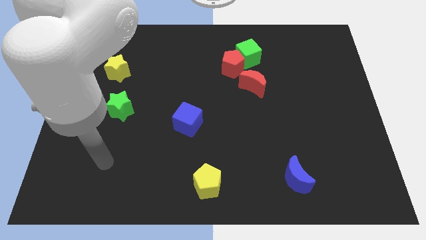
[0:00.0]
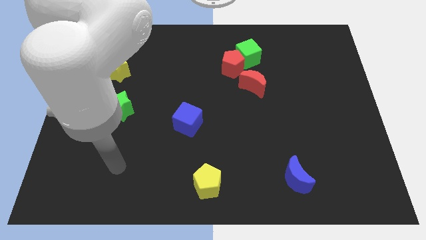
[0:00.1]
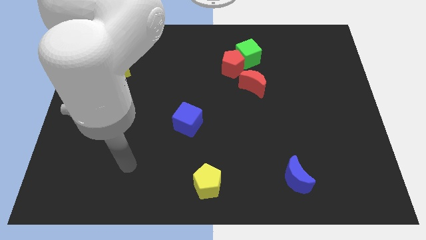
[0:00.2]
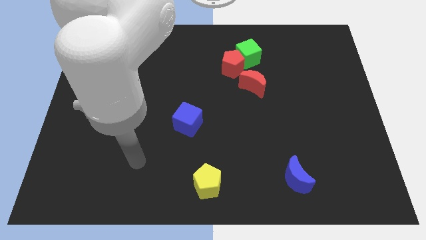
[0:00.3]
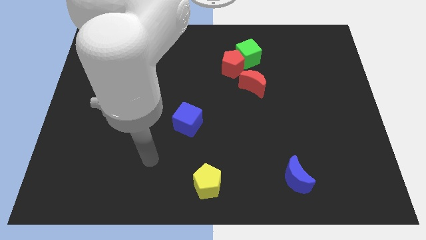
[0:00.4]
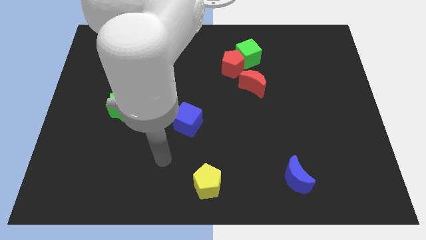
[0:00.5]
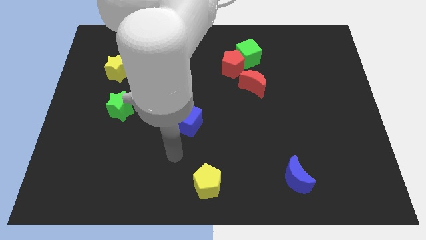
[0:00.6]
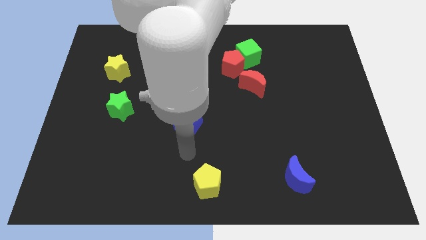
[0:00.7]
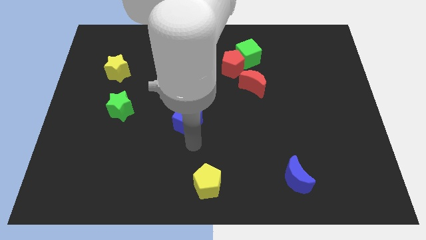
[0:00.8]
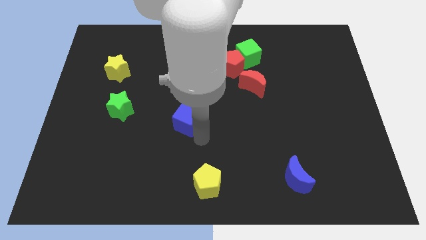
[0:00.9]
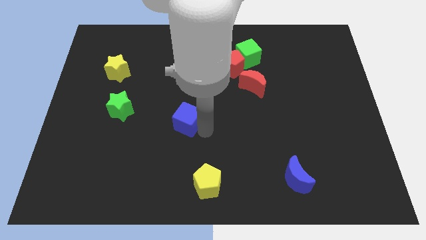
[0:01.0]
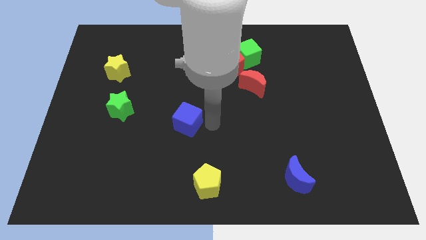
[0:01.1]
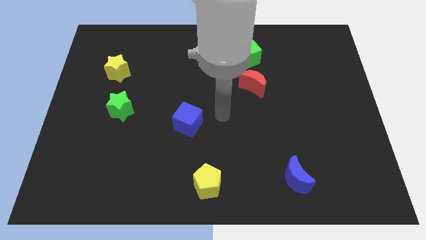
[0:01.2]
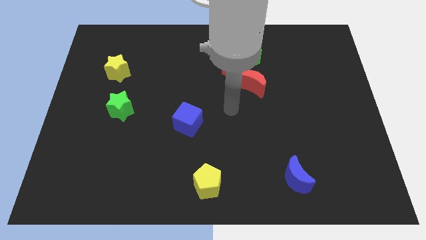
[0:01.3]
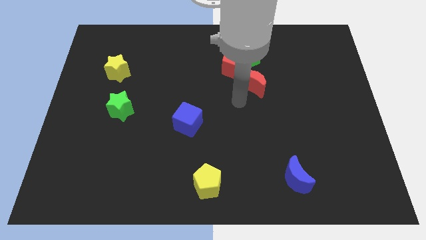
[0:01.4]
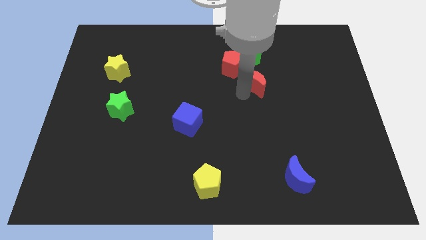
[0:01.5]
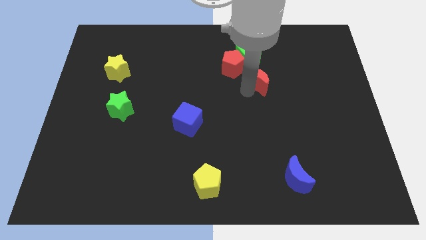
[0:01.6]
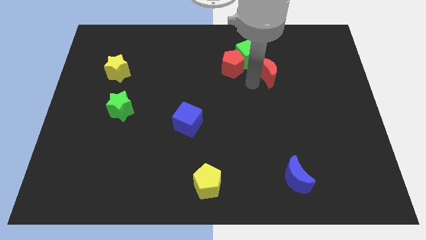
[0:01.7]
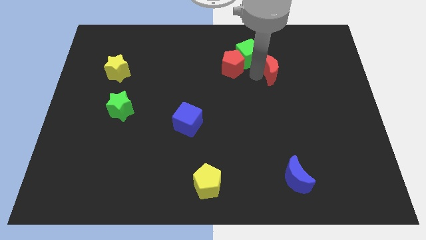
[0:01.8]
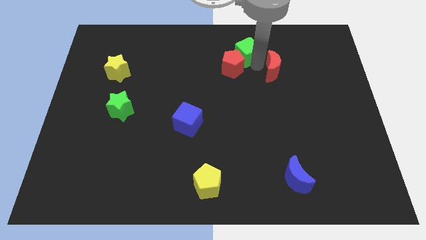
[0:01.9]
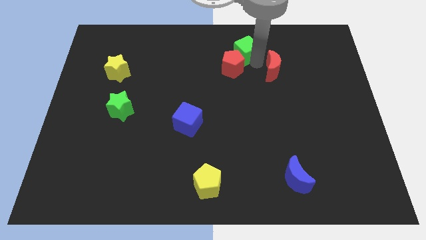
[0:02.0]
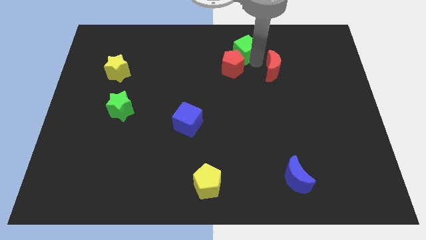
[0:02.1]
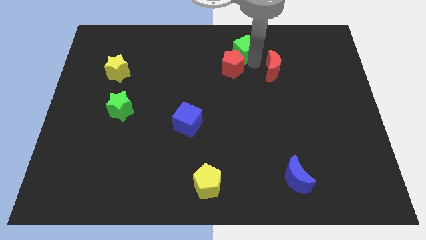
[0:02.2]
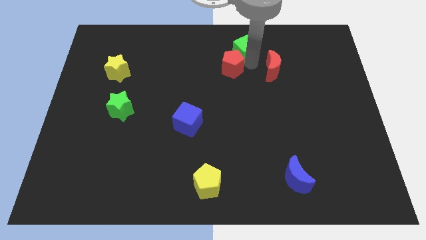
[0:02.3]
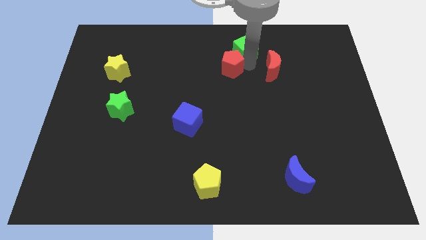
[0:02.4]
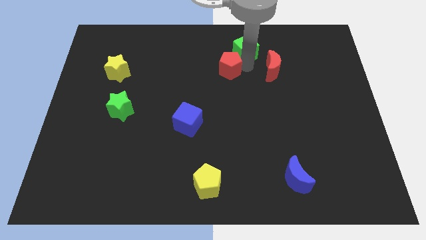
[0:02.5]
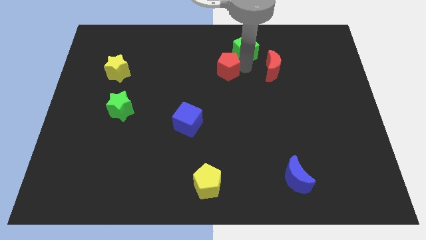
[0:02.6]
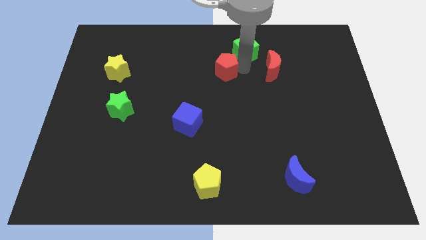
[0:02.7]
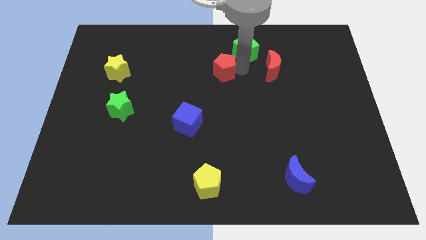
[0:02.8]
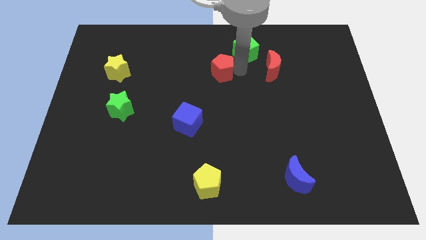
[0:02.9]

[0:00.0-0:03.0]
separate the red pentagon from the green cube and red moon

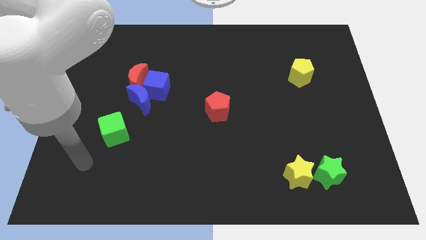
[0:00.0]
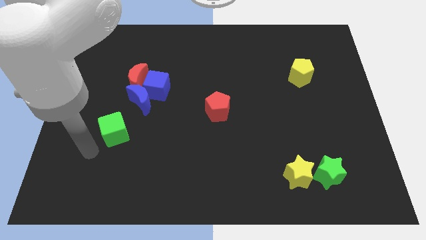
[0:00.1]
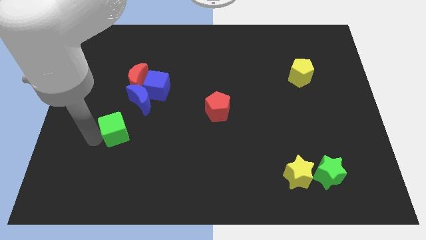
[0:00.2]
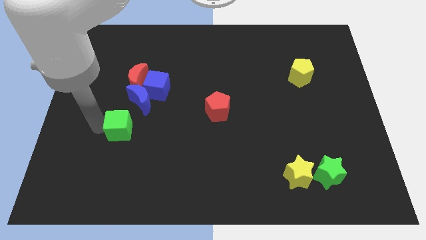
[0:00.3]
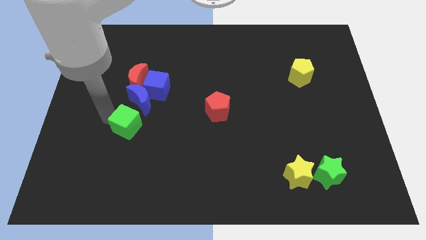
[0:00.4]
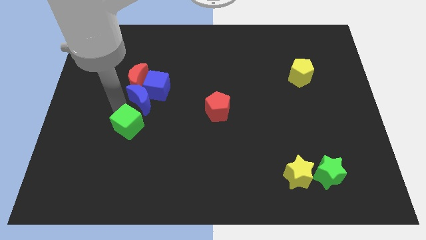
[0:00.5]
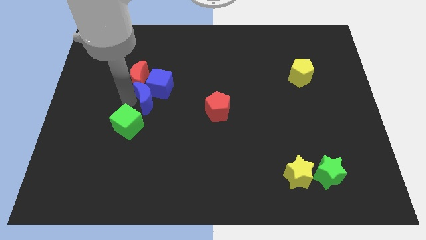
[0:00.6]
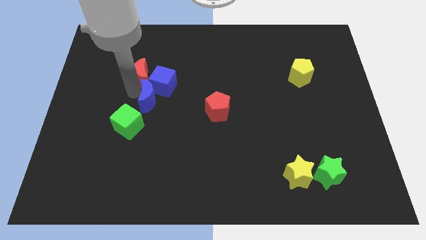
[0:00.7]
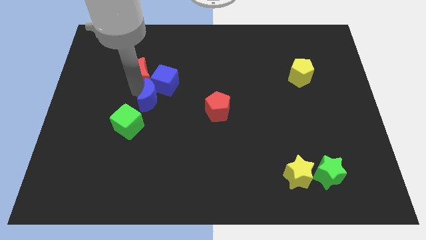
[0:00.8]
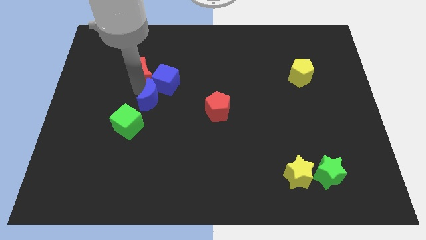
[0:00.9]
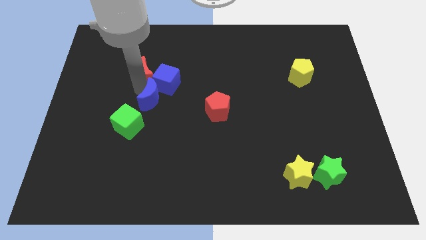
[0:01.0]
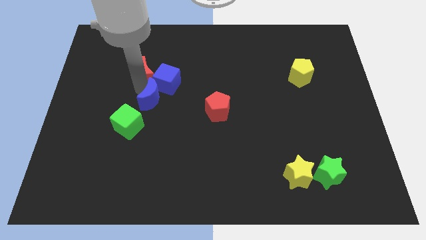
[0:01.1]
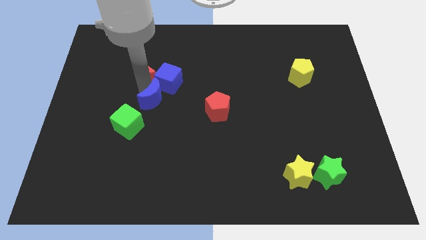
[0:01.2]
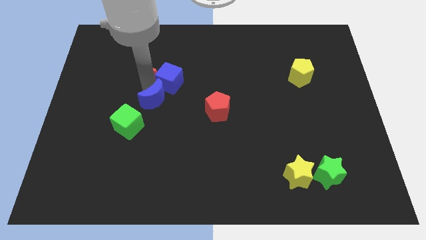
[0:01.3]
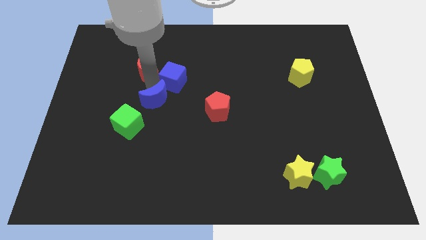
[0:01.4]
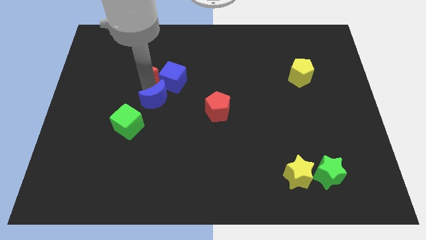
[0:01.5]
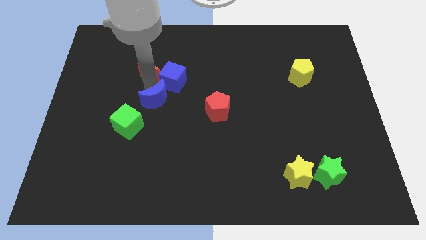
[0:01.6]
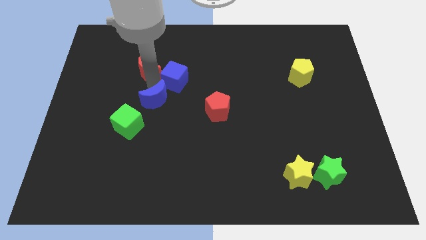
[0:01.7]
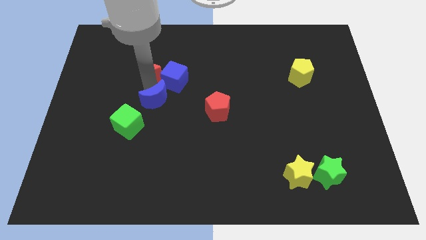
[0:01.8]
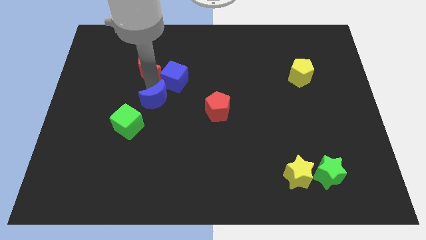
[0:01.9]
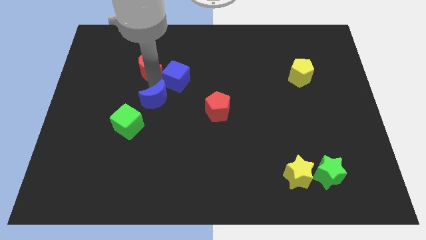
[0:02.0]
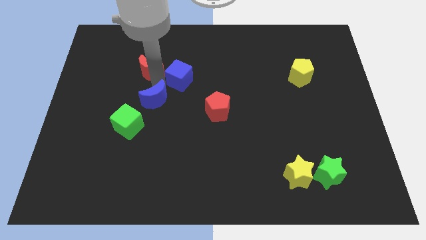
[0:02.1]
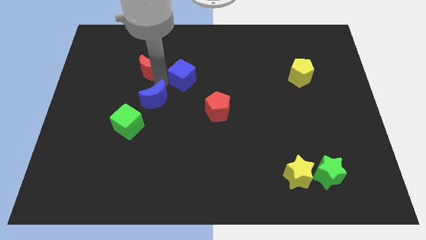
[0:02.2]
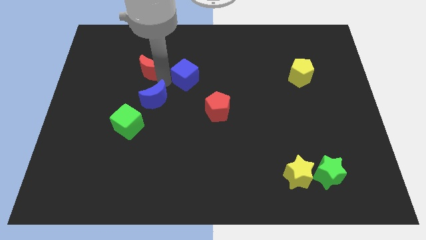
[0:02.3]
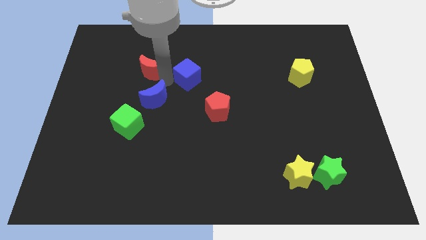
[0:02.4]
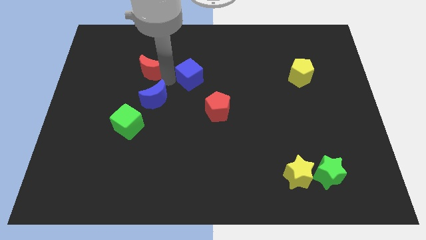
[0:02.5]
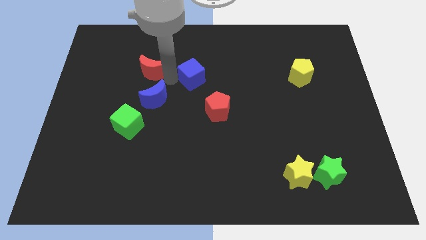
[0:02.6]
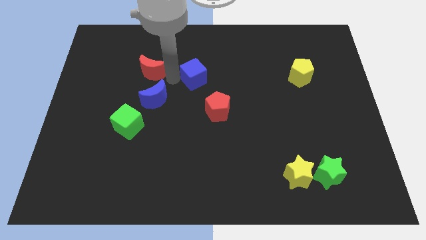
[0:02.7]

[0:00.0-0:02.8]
move the blue cube away from the blue moon and red moon

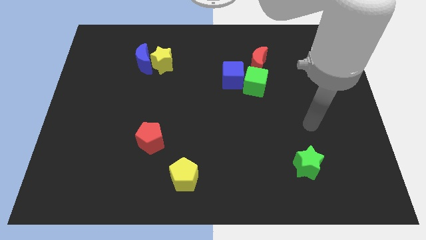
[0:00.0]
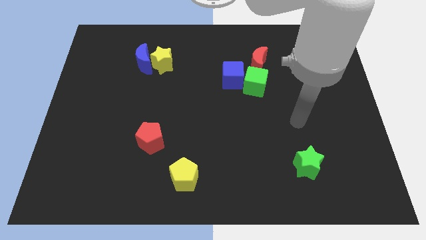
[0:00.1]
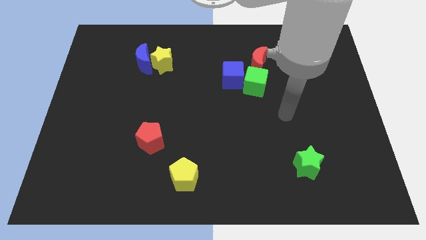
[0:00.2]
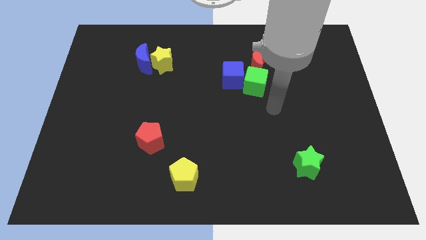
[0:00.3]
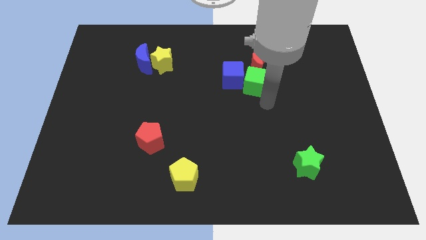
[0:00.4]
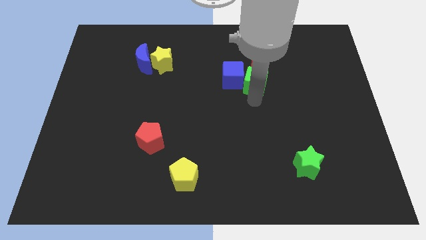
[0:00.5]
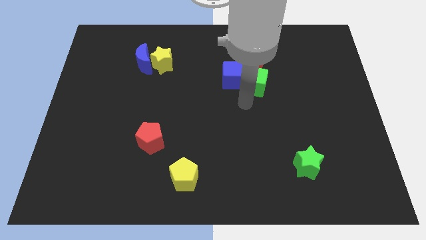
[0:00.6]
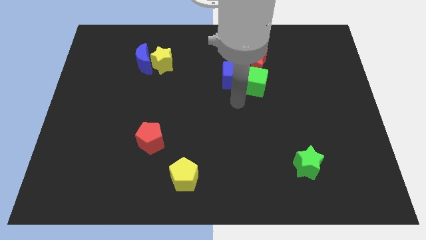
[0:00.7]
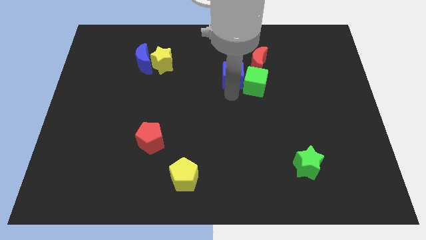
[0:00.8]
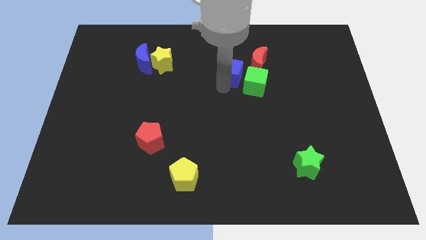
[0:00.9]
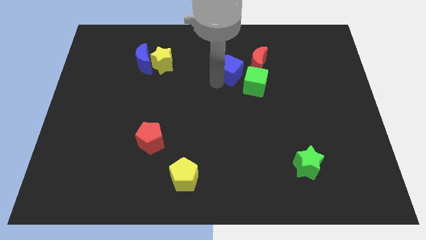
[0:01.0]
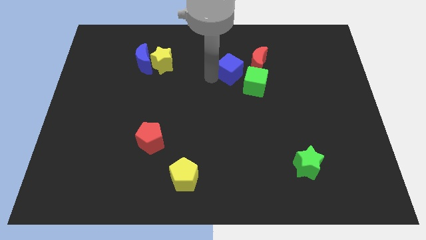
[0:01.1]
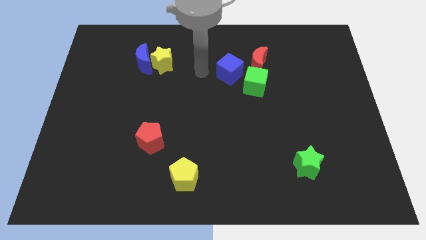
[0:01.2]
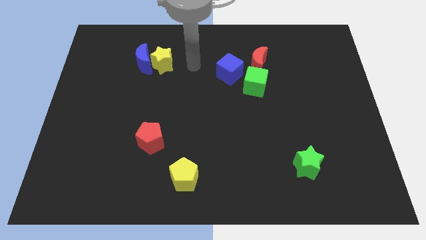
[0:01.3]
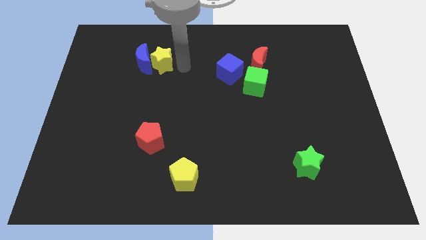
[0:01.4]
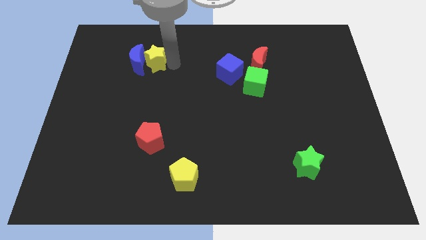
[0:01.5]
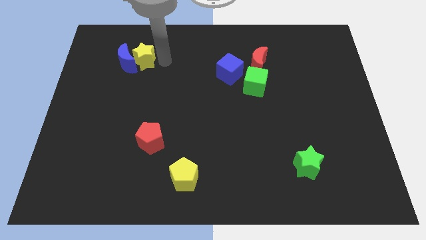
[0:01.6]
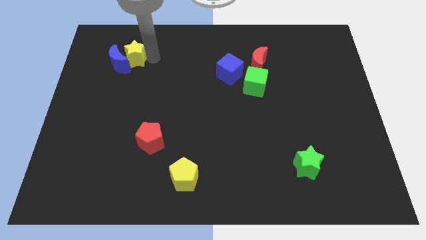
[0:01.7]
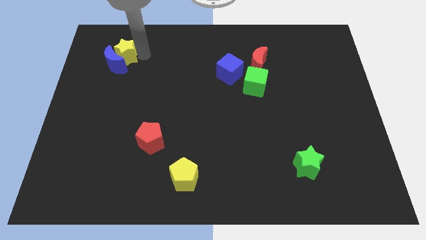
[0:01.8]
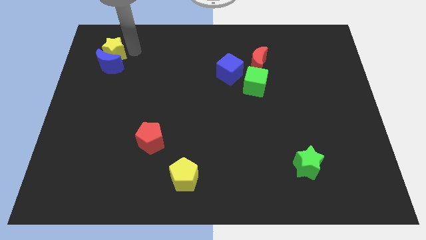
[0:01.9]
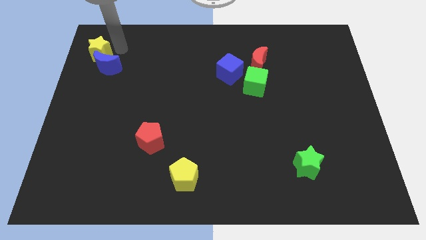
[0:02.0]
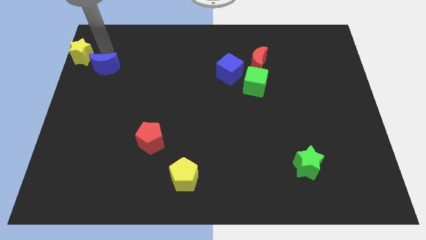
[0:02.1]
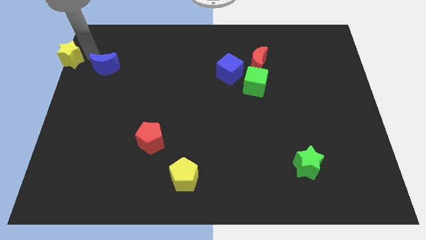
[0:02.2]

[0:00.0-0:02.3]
move the blue moon away from the yellow star

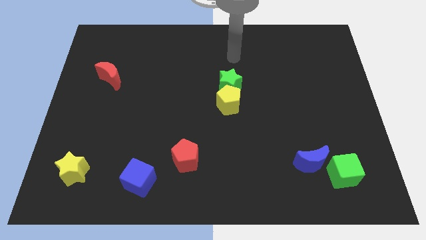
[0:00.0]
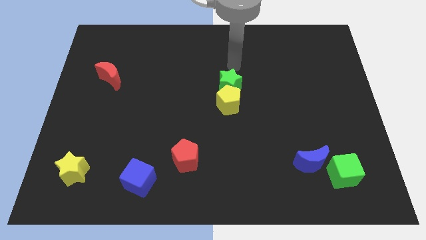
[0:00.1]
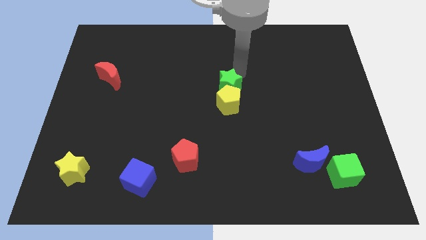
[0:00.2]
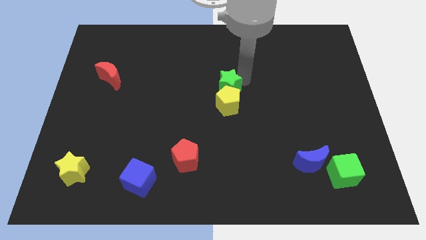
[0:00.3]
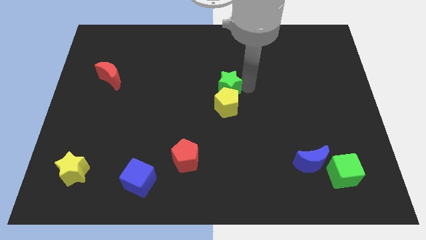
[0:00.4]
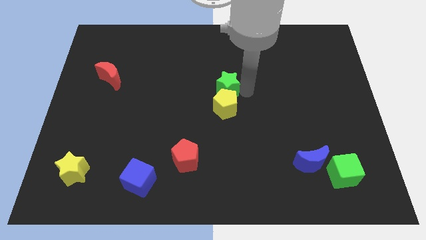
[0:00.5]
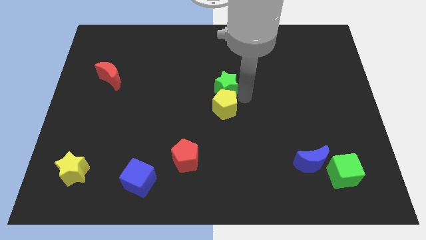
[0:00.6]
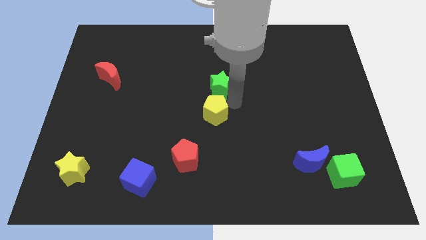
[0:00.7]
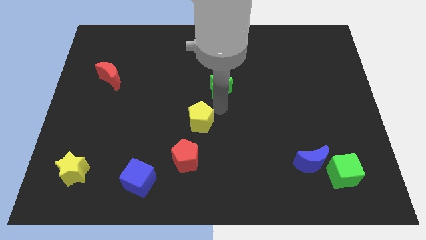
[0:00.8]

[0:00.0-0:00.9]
pull the green star apart from the yellow pentagon

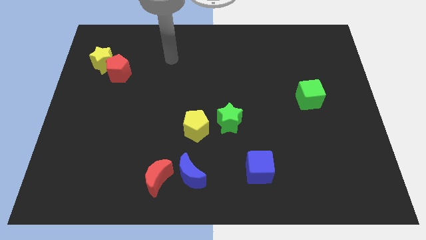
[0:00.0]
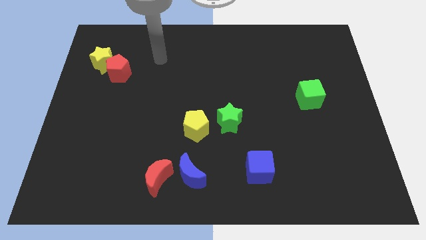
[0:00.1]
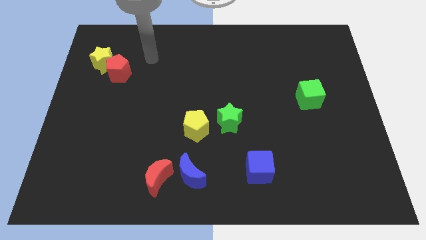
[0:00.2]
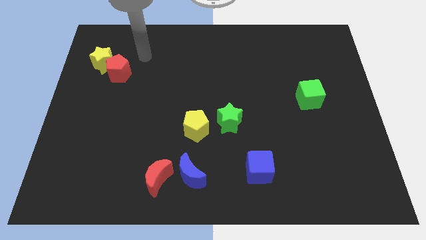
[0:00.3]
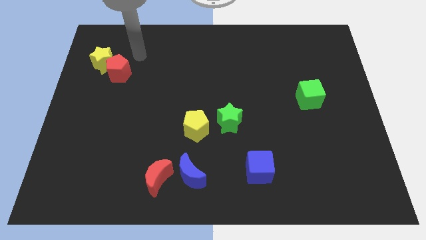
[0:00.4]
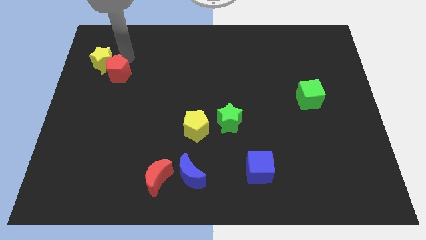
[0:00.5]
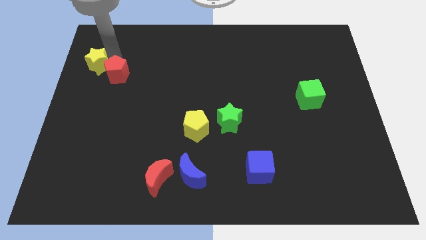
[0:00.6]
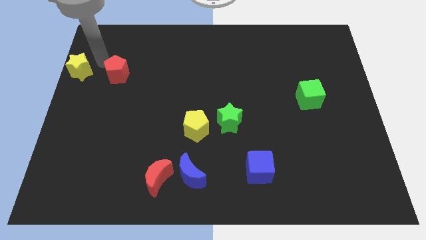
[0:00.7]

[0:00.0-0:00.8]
move the red pentagon away from the yellow star
